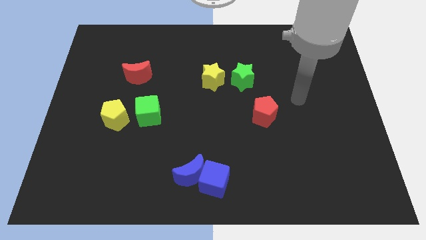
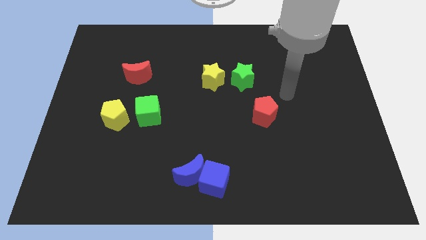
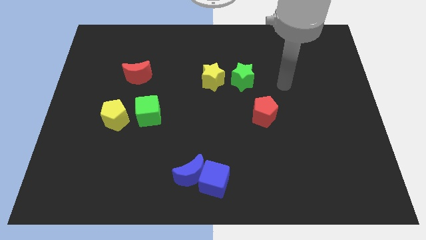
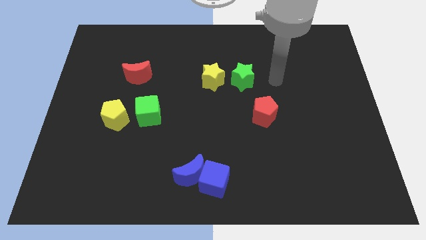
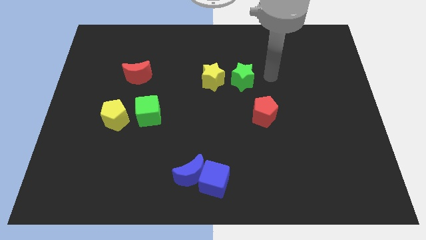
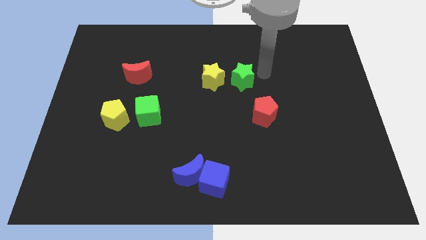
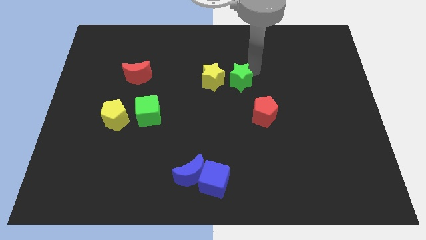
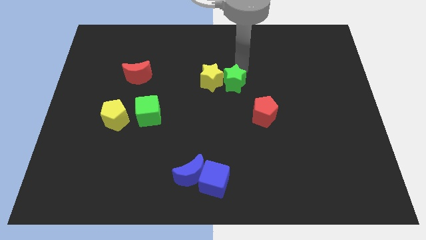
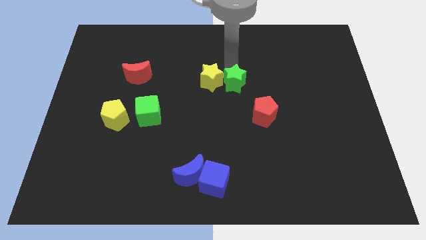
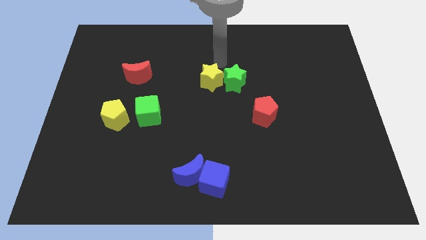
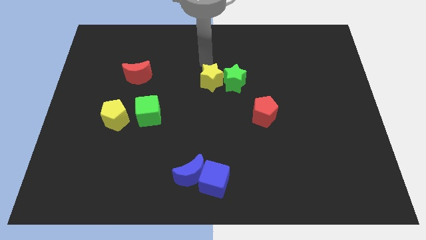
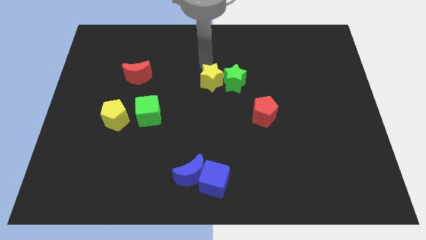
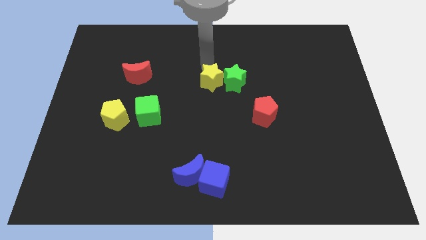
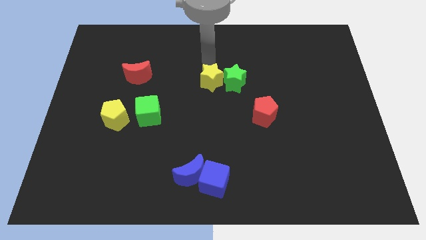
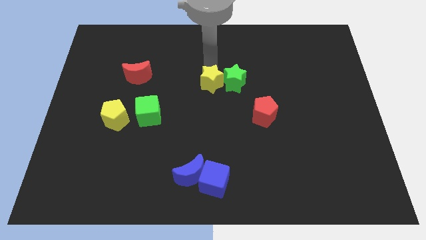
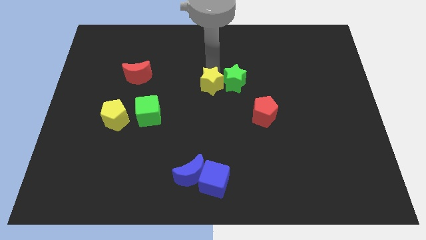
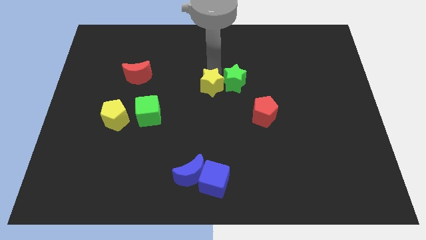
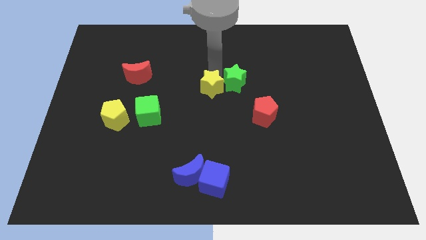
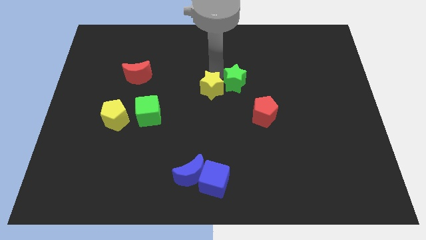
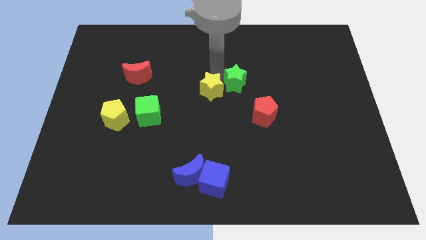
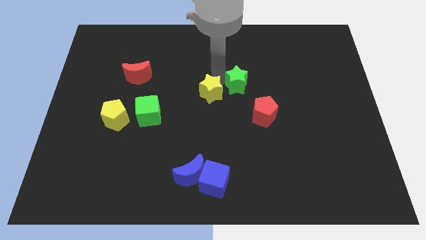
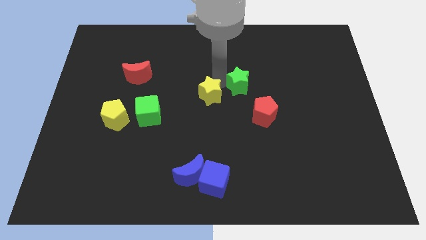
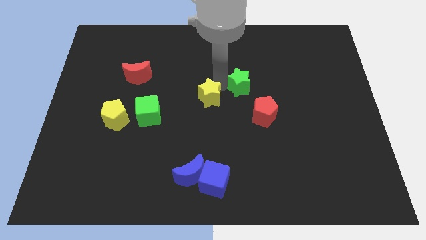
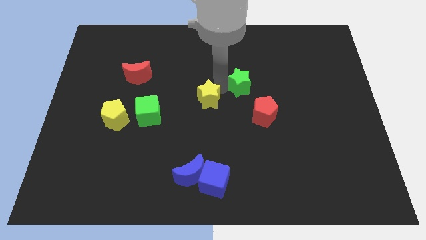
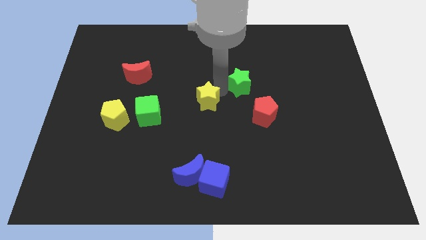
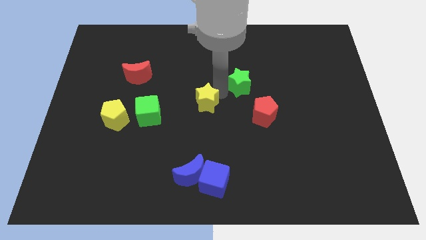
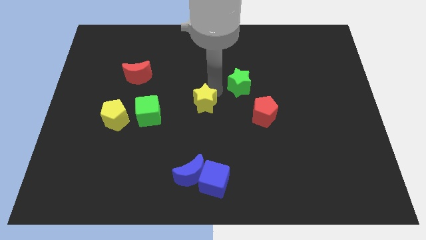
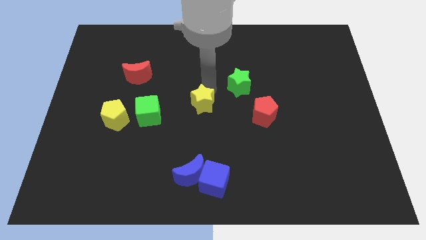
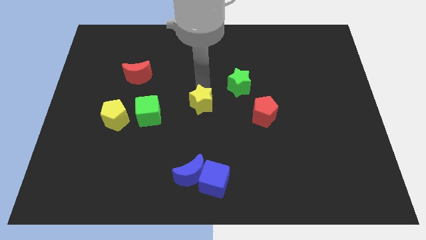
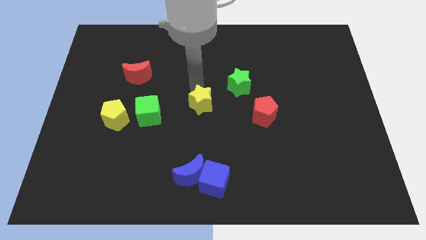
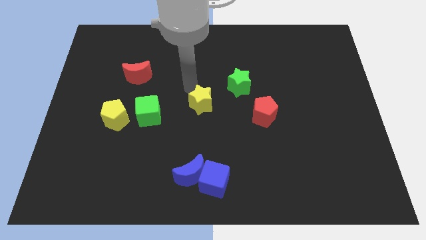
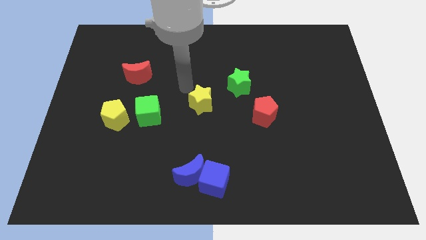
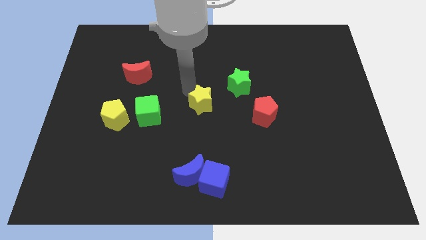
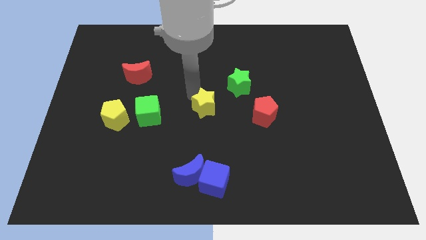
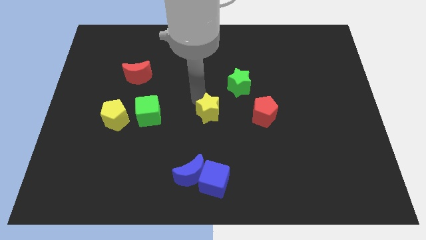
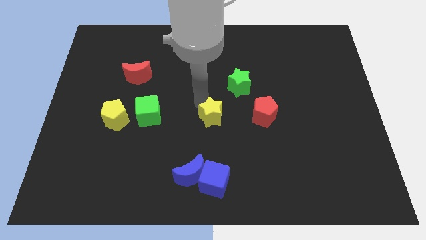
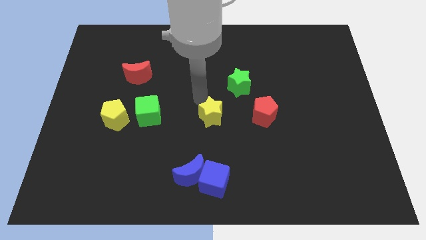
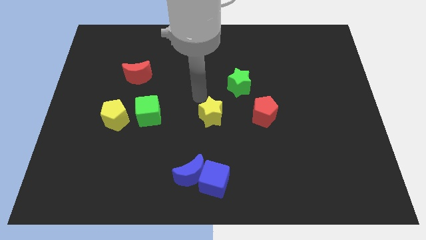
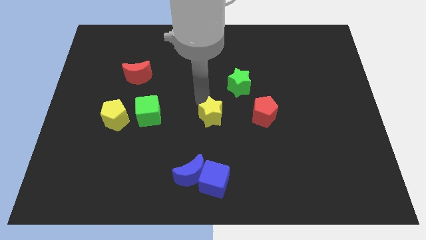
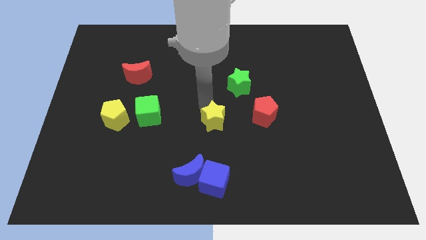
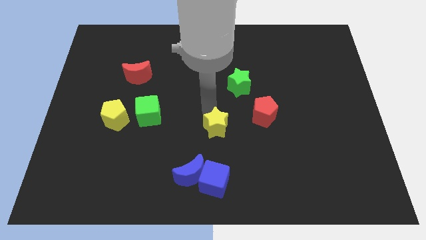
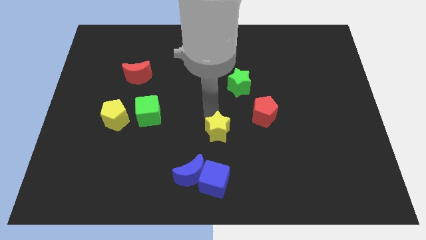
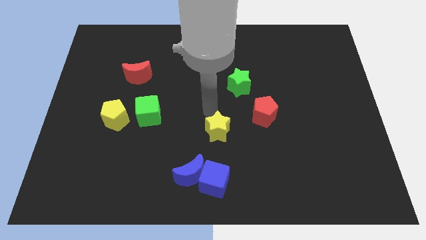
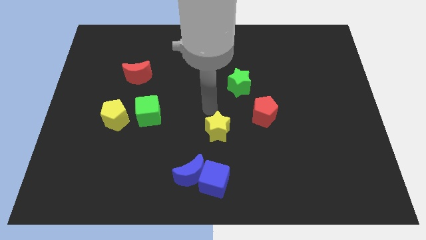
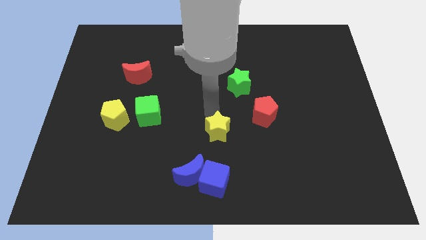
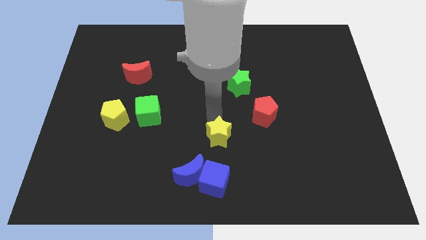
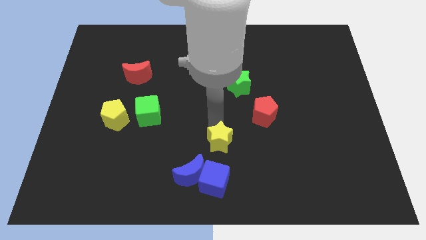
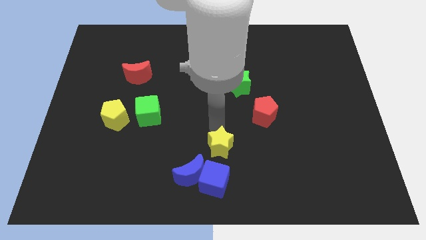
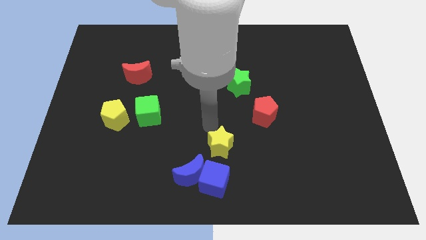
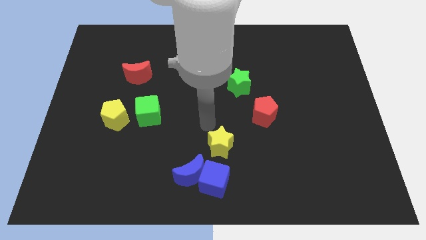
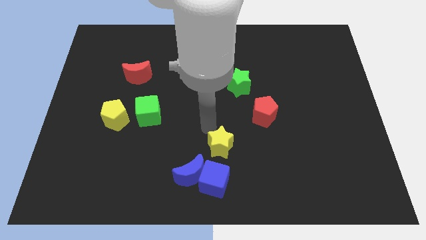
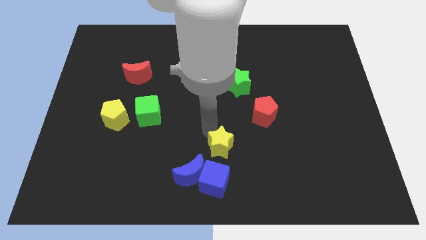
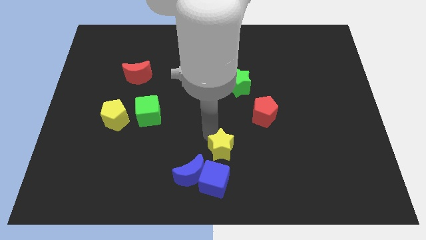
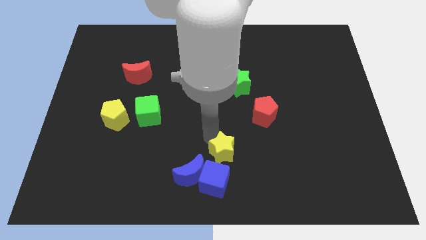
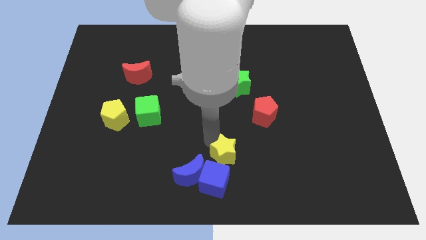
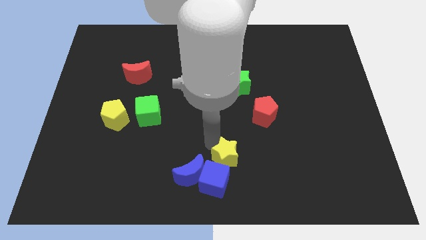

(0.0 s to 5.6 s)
move the yellow star to the right of the blue moon

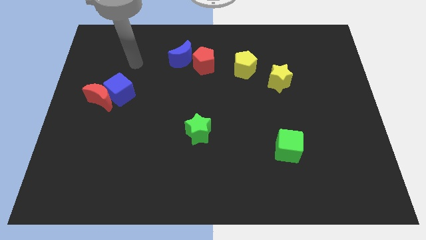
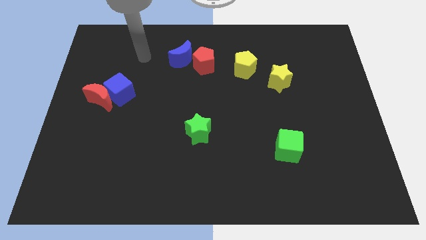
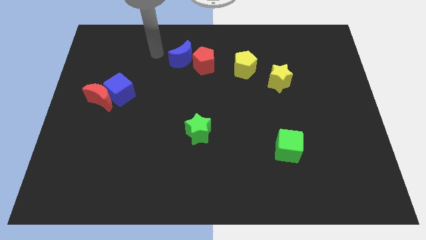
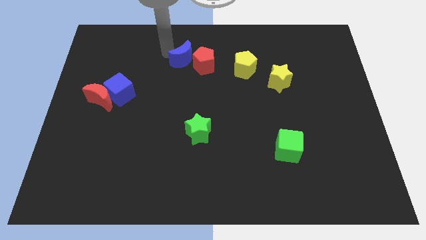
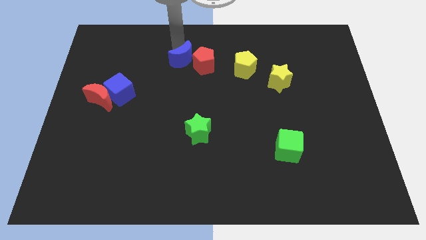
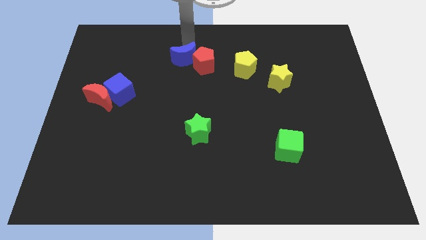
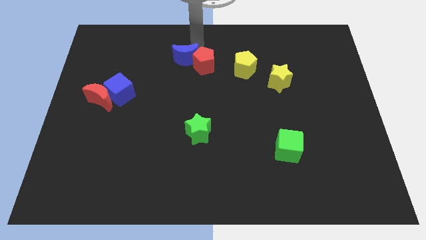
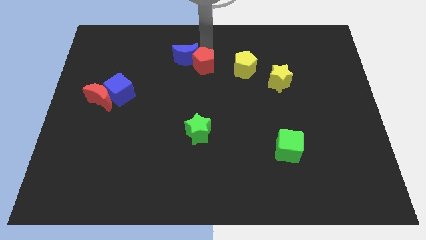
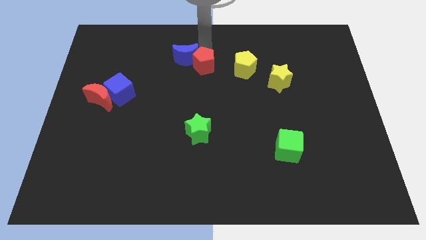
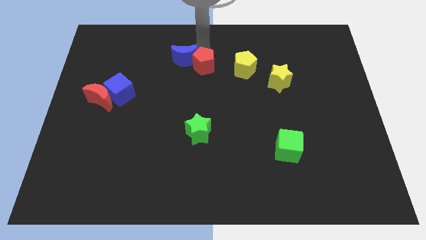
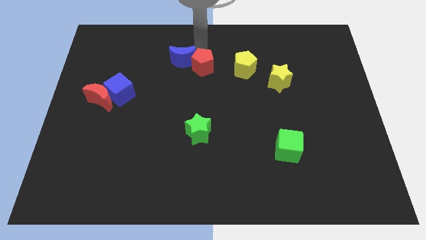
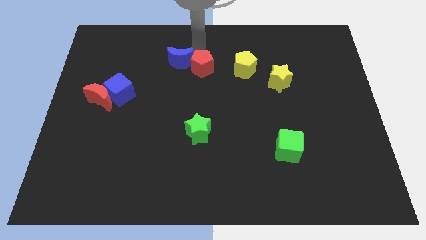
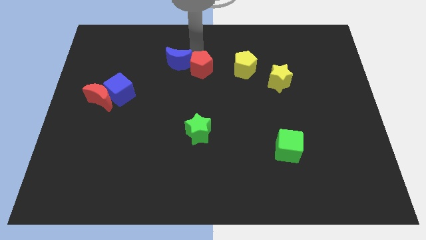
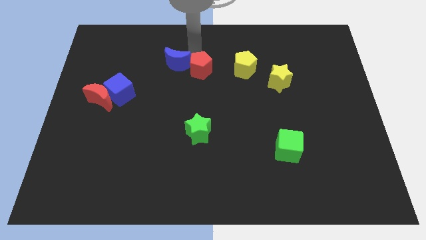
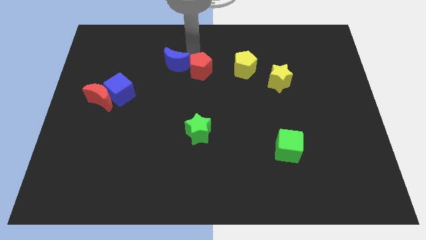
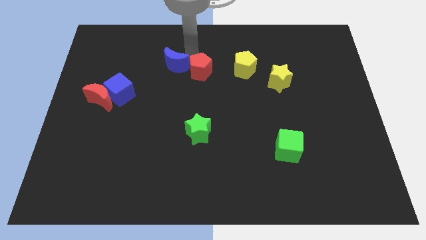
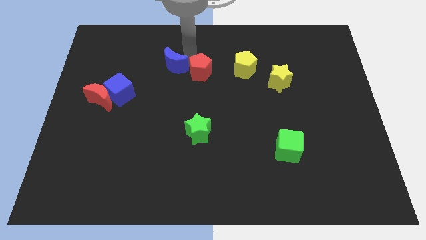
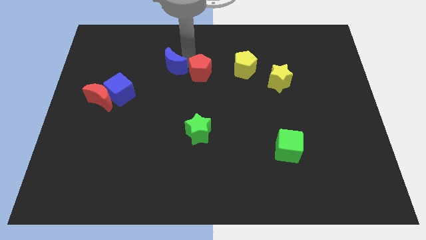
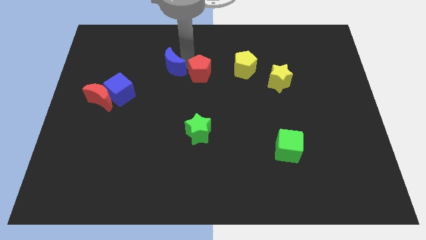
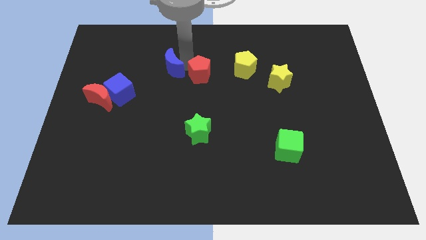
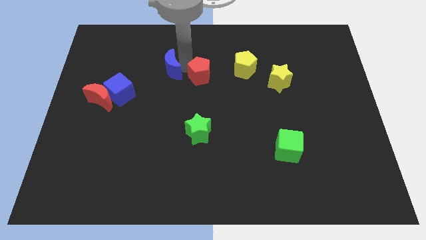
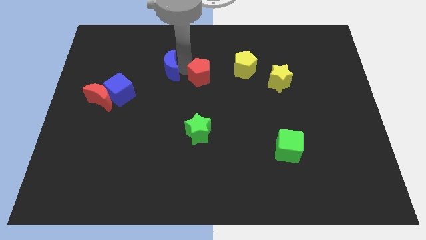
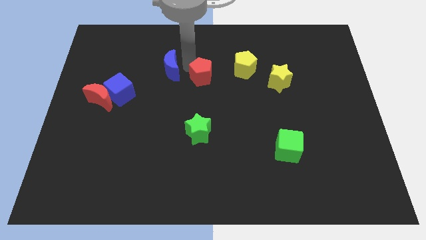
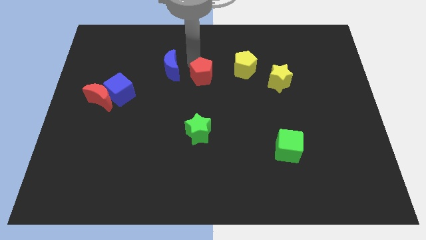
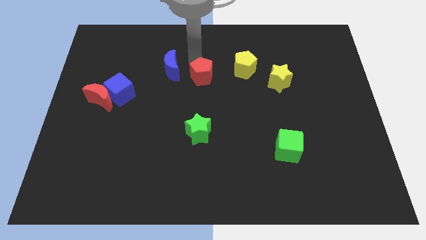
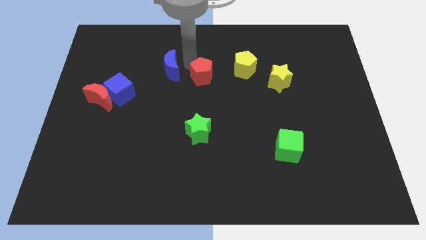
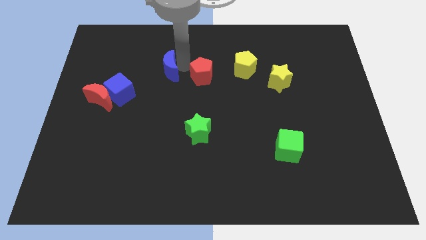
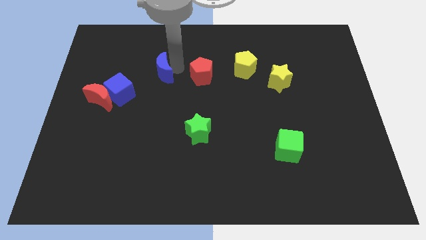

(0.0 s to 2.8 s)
push the blue moon to the top right of the blue cube
